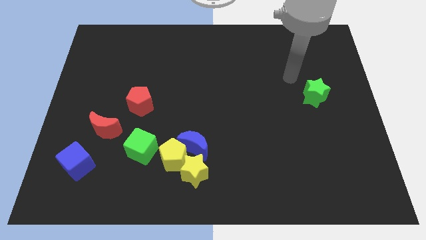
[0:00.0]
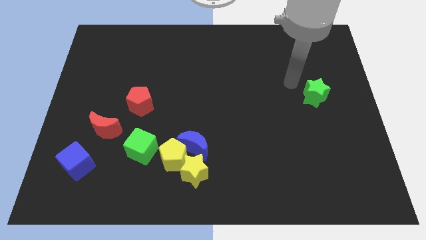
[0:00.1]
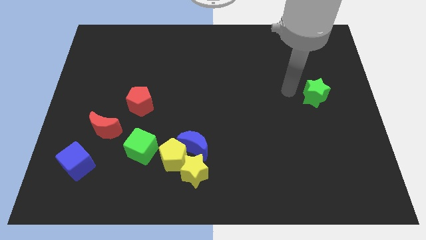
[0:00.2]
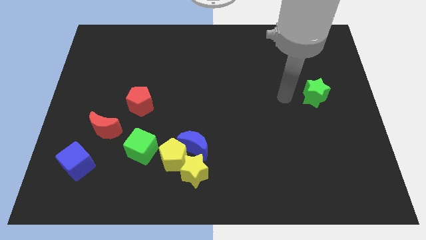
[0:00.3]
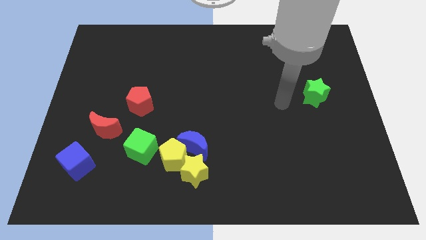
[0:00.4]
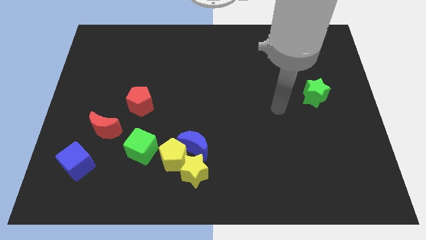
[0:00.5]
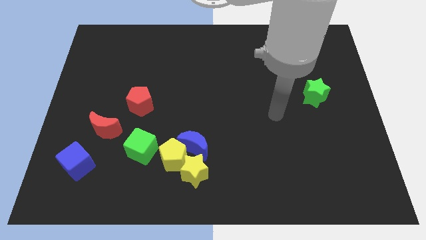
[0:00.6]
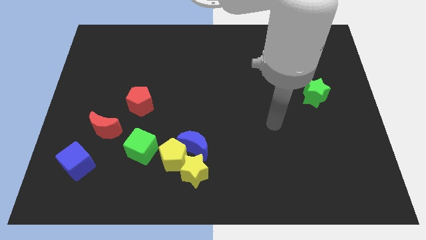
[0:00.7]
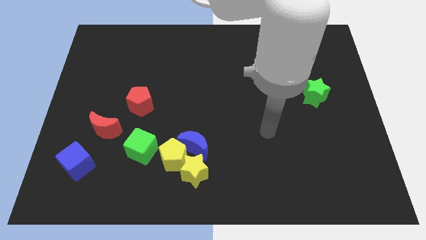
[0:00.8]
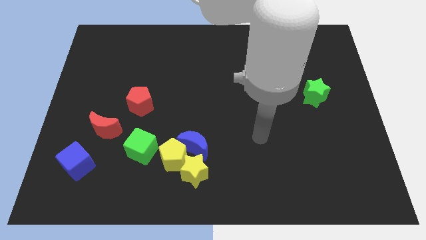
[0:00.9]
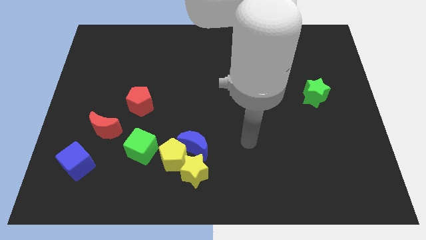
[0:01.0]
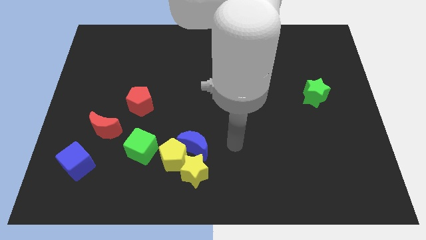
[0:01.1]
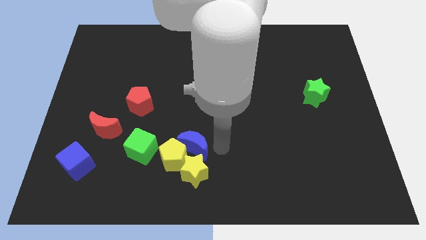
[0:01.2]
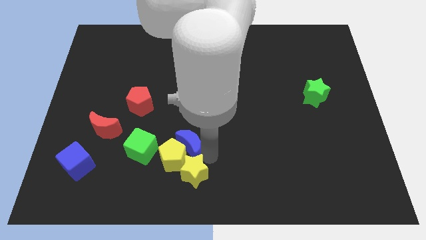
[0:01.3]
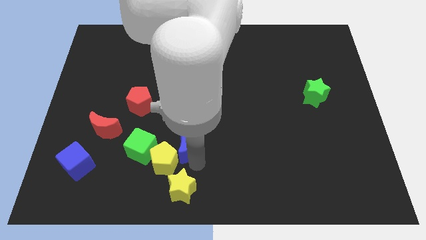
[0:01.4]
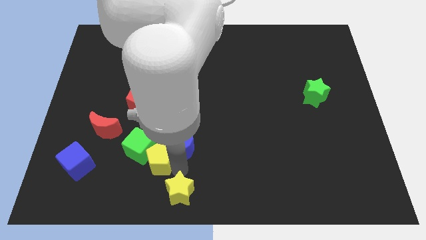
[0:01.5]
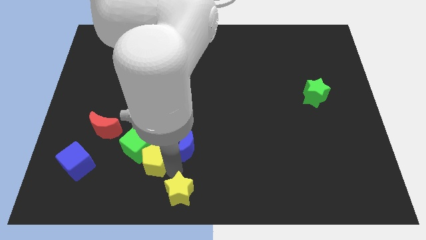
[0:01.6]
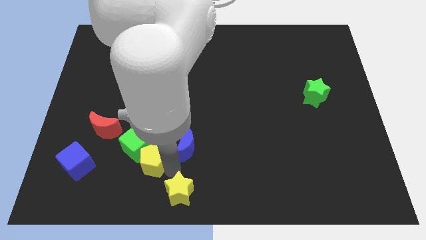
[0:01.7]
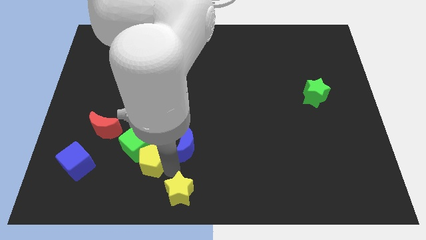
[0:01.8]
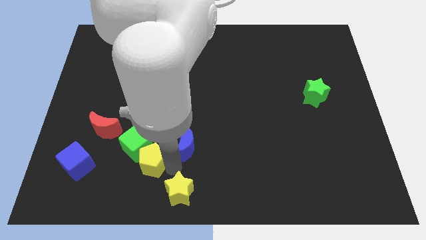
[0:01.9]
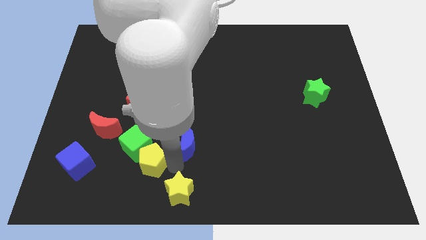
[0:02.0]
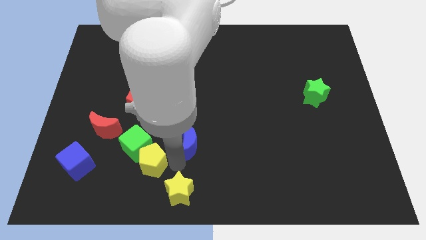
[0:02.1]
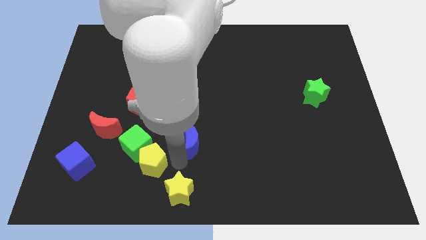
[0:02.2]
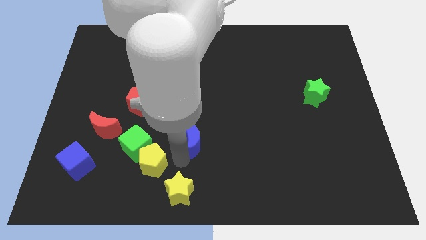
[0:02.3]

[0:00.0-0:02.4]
separate the blue moon from the yellow pentagon and yellow star

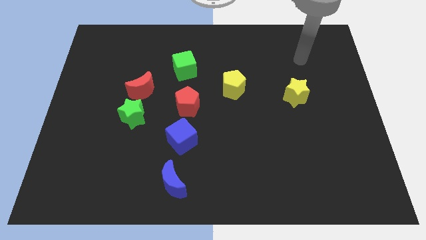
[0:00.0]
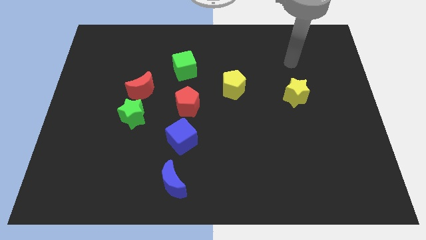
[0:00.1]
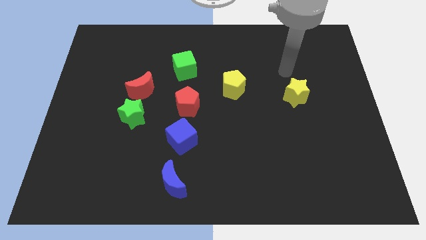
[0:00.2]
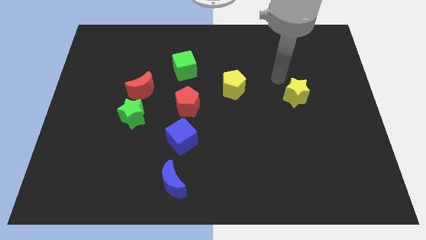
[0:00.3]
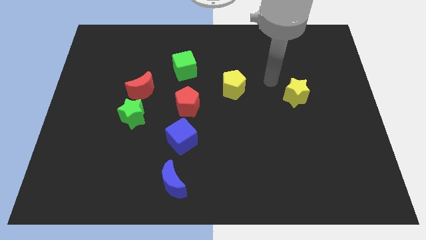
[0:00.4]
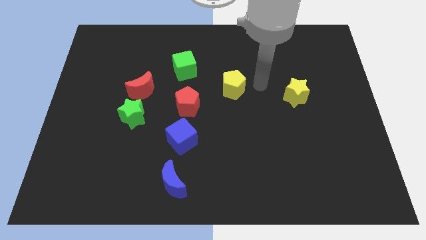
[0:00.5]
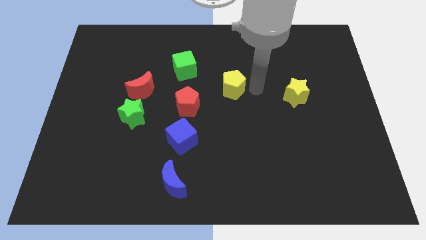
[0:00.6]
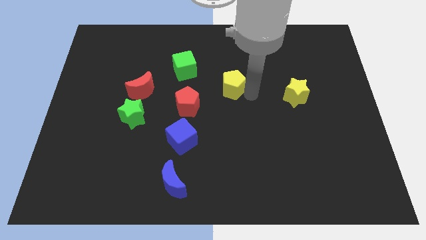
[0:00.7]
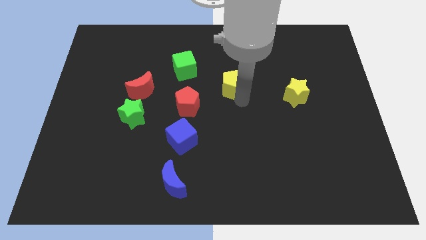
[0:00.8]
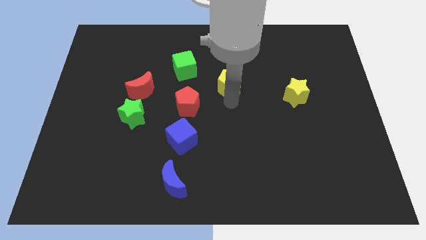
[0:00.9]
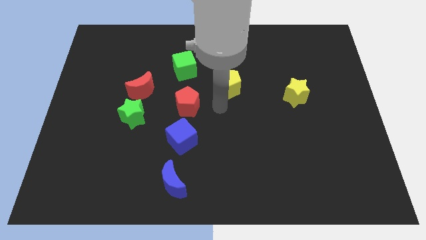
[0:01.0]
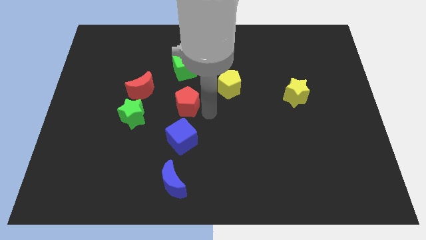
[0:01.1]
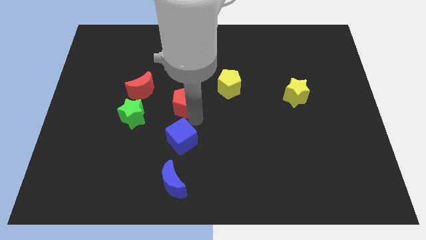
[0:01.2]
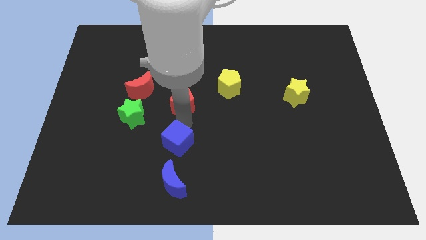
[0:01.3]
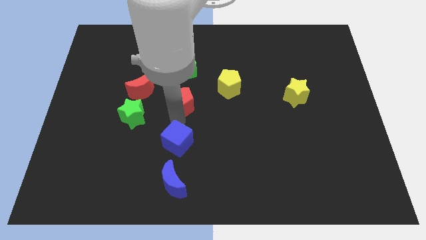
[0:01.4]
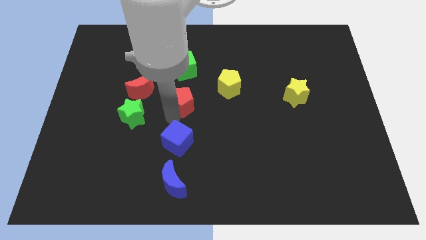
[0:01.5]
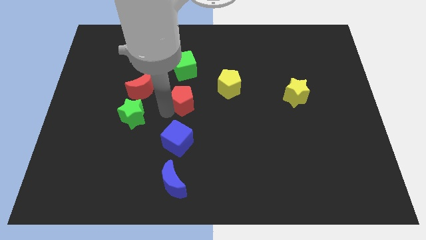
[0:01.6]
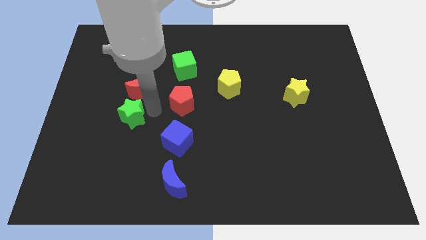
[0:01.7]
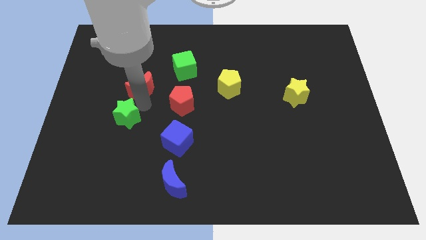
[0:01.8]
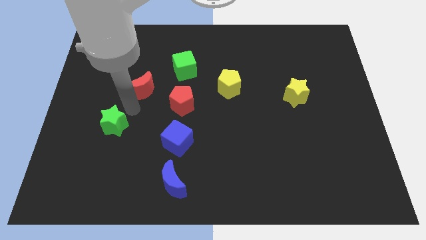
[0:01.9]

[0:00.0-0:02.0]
move the red moon away from the green star

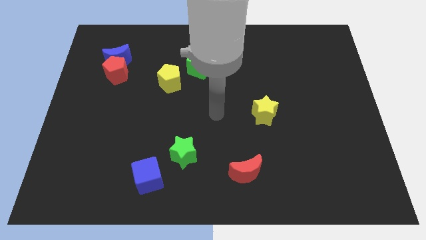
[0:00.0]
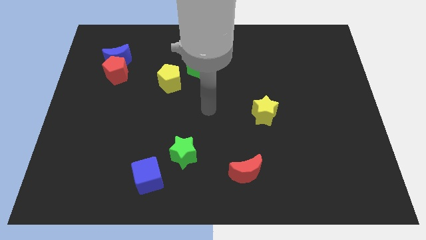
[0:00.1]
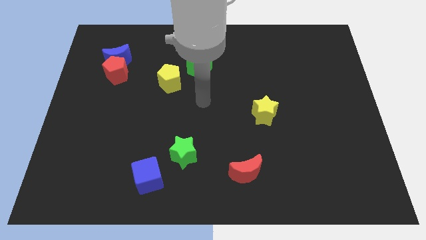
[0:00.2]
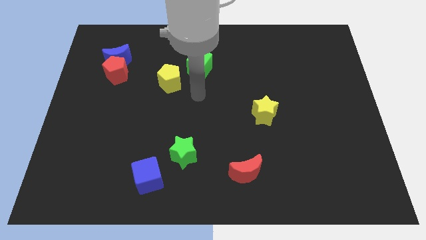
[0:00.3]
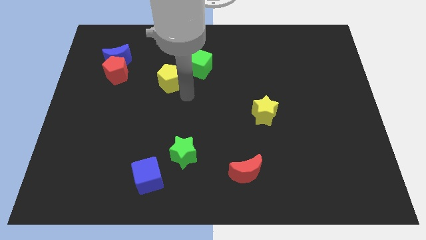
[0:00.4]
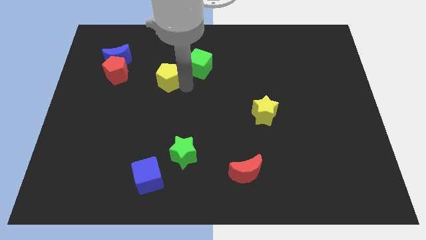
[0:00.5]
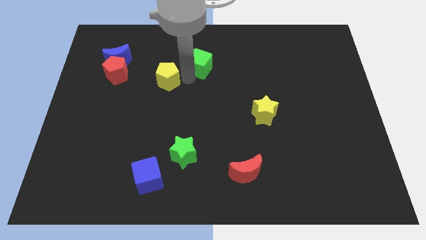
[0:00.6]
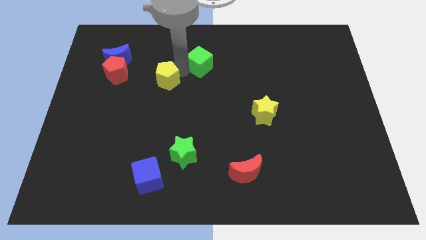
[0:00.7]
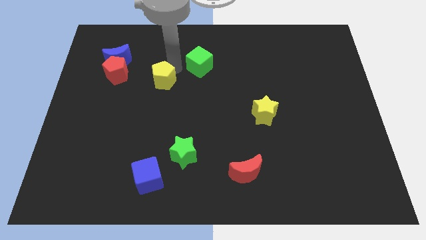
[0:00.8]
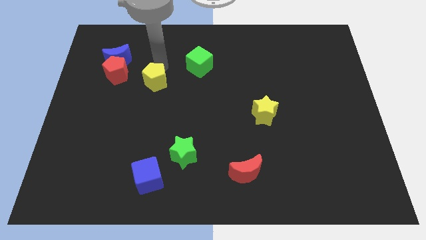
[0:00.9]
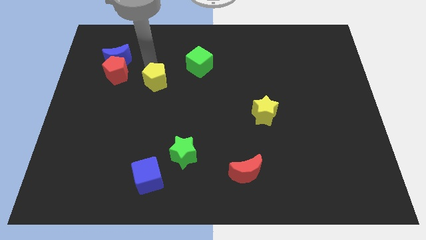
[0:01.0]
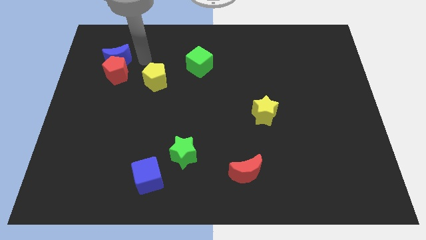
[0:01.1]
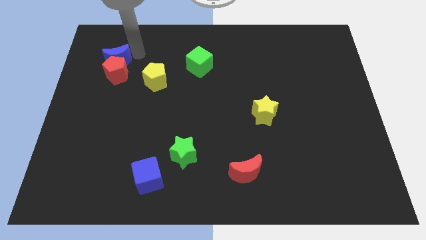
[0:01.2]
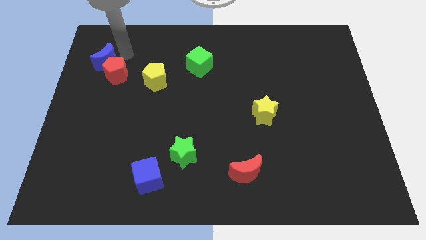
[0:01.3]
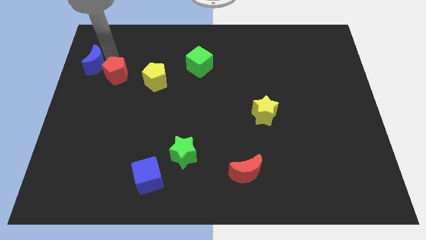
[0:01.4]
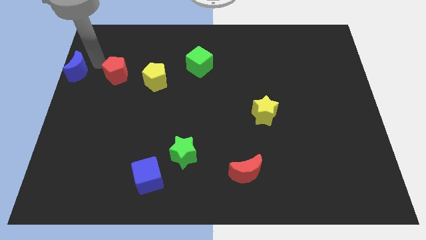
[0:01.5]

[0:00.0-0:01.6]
separate the red pentagon from the blue moon

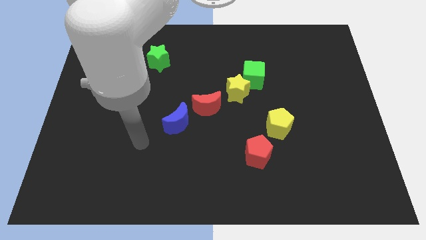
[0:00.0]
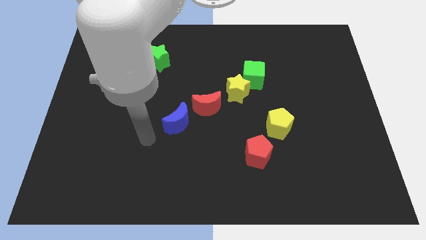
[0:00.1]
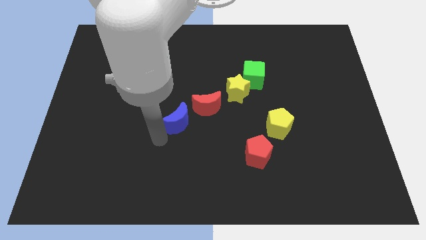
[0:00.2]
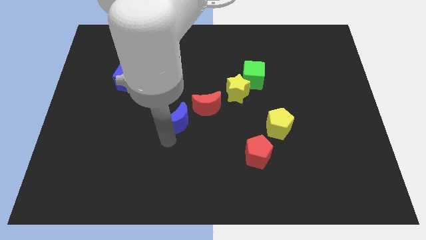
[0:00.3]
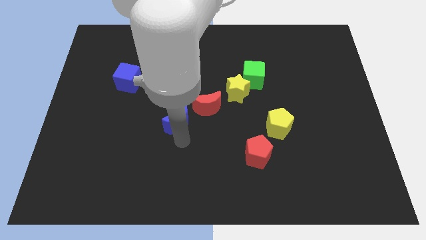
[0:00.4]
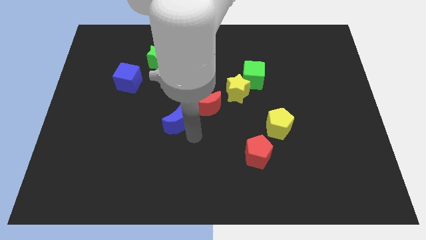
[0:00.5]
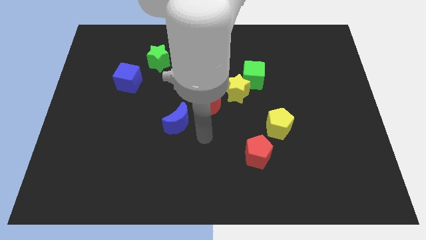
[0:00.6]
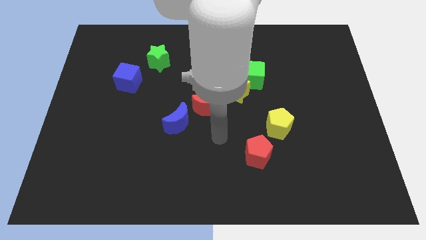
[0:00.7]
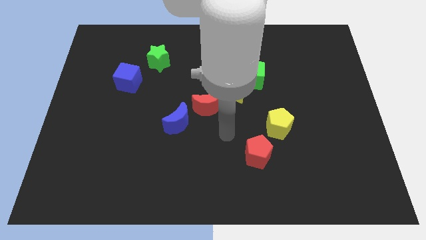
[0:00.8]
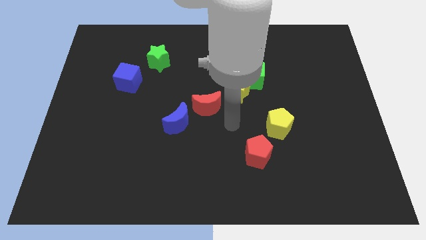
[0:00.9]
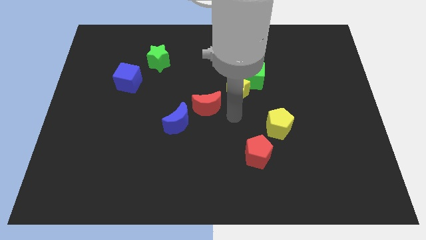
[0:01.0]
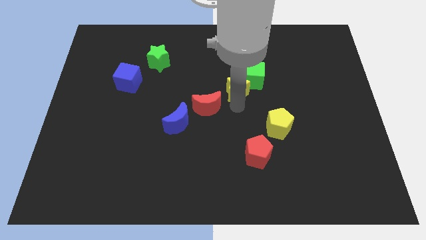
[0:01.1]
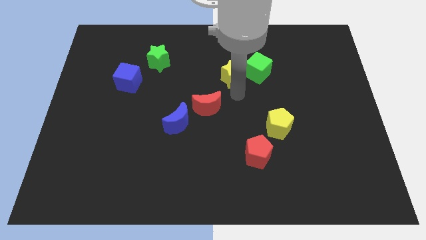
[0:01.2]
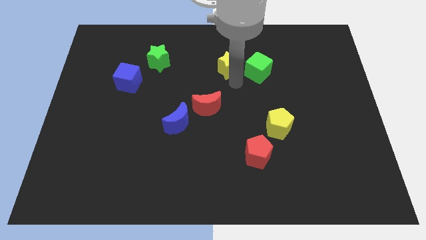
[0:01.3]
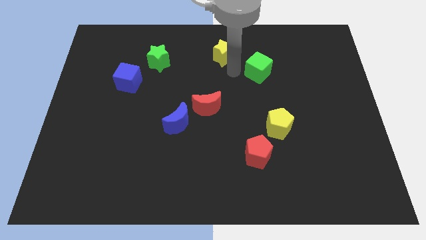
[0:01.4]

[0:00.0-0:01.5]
pull the green cube apart from the yellow star

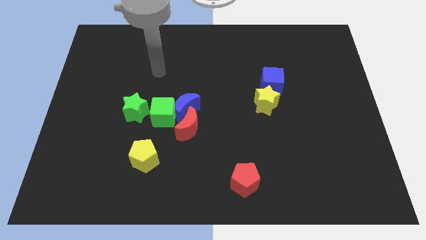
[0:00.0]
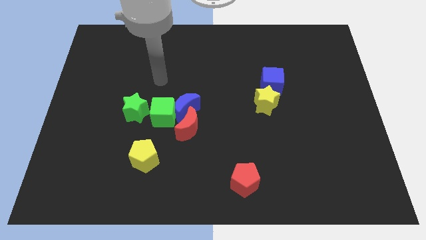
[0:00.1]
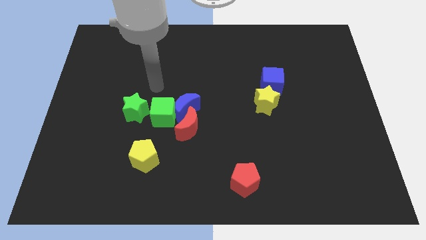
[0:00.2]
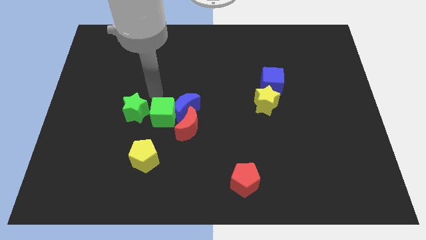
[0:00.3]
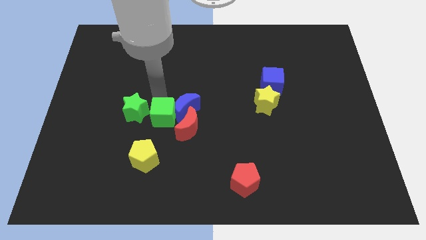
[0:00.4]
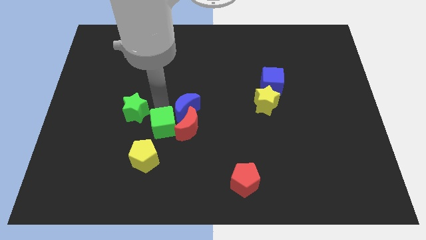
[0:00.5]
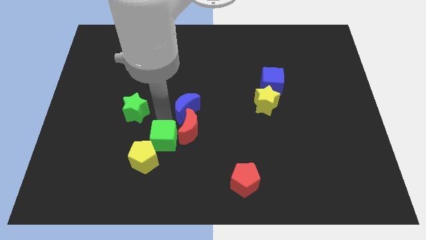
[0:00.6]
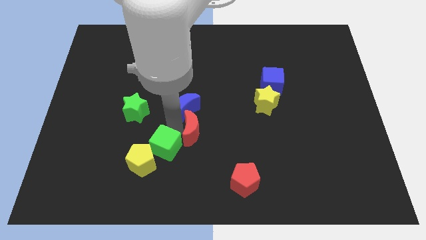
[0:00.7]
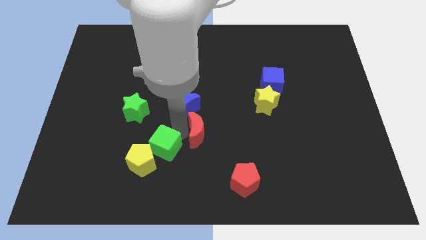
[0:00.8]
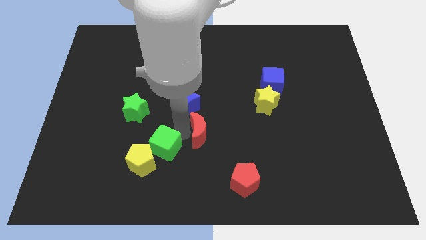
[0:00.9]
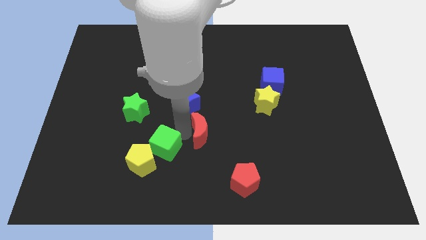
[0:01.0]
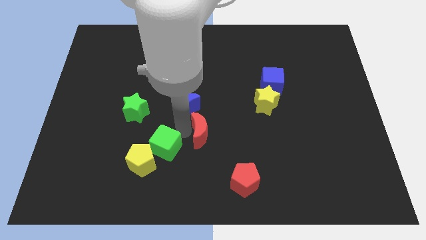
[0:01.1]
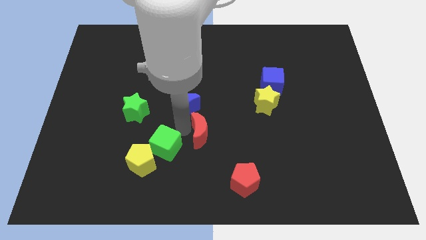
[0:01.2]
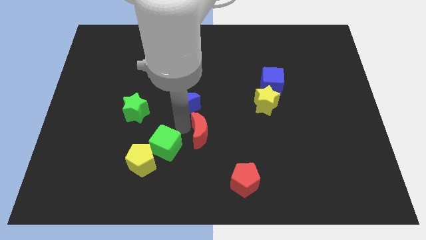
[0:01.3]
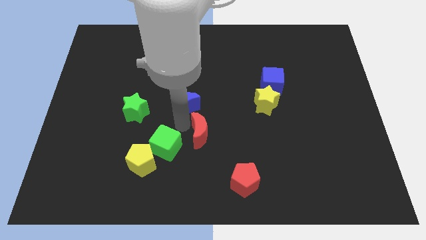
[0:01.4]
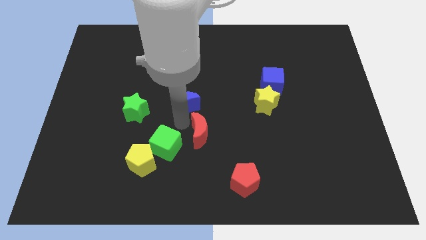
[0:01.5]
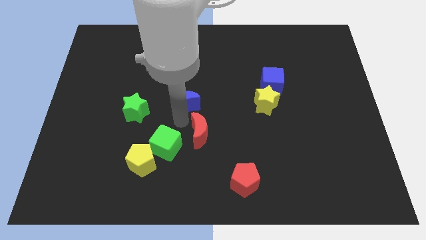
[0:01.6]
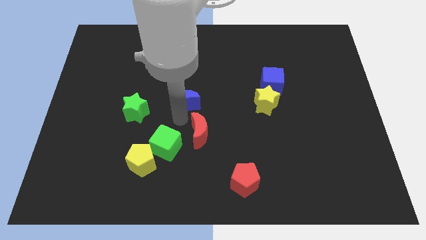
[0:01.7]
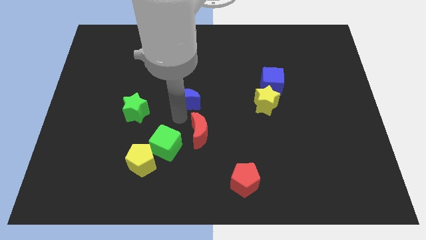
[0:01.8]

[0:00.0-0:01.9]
move the blue moon away from the green cube and red moon
